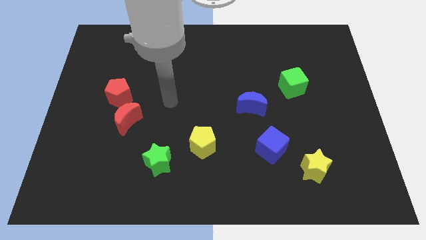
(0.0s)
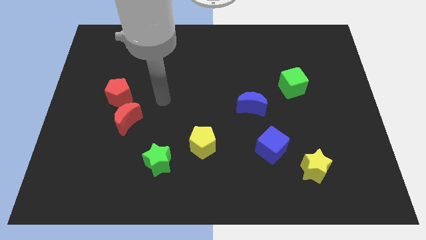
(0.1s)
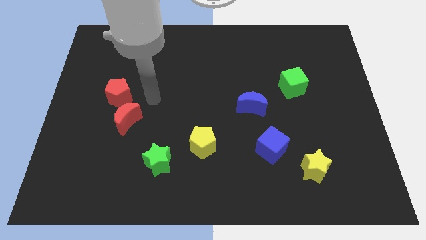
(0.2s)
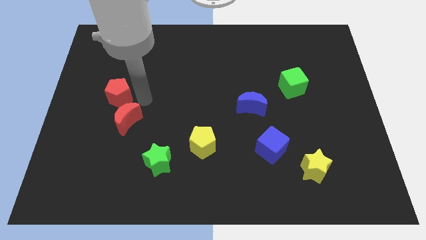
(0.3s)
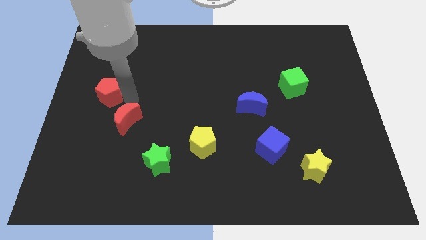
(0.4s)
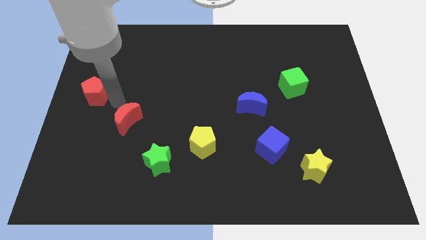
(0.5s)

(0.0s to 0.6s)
separate the red moon from the red pentagon

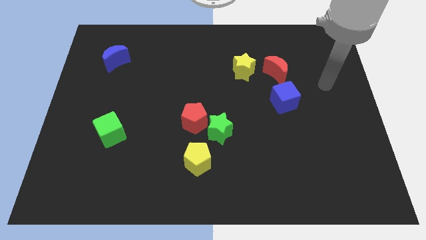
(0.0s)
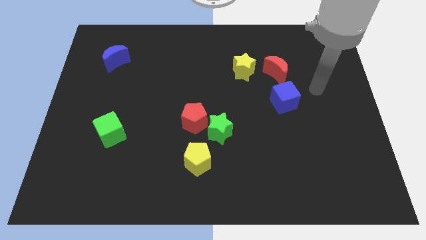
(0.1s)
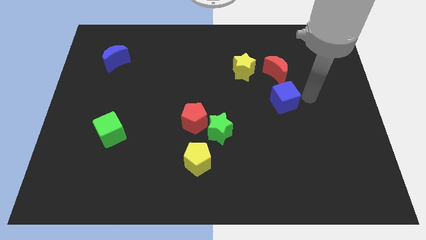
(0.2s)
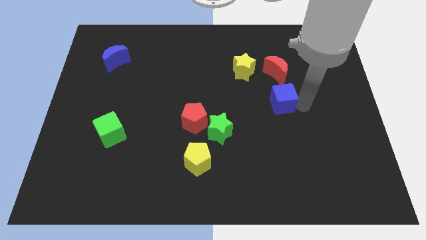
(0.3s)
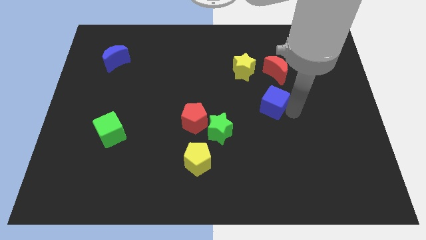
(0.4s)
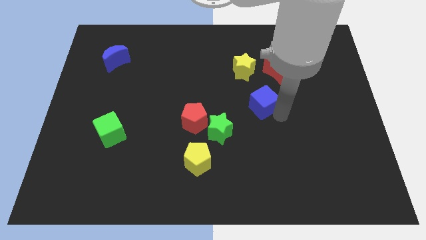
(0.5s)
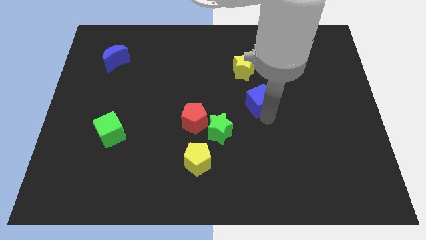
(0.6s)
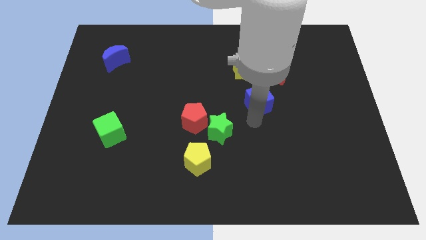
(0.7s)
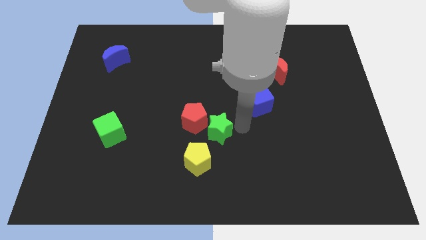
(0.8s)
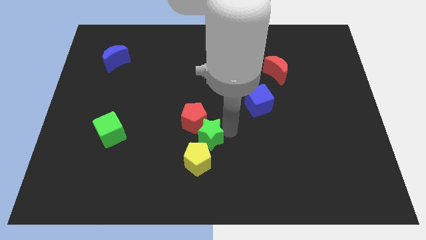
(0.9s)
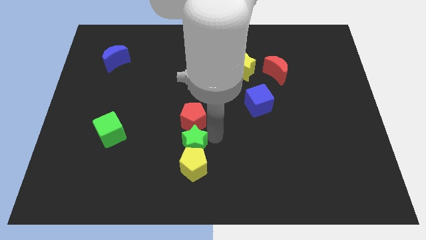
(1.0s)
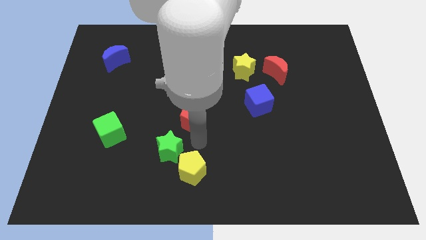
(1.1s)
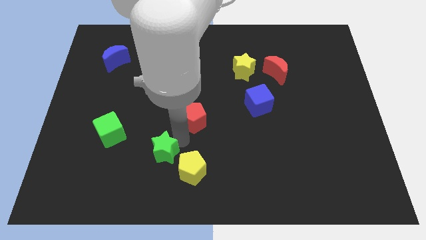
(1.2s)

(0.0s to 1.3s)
separate the red pentagon from the green star

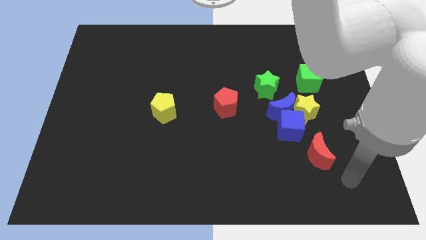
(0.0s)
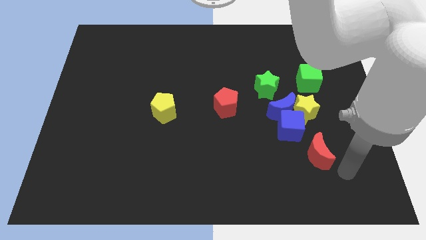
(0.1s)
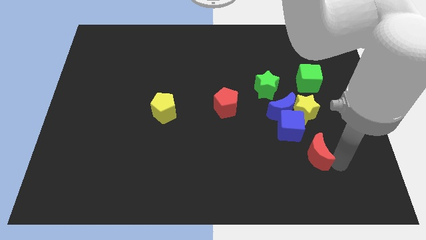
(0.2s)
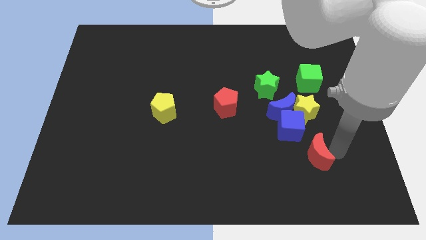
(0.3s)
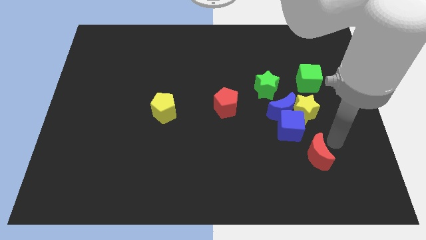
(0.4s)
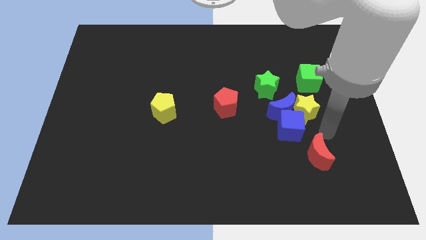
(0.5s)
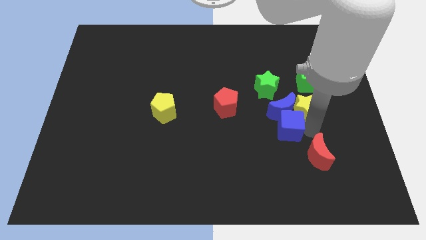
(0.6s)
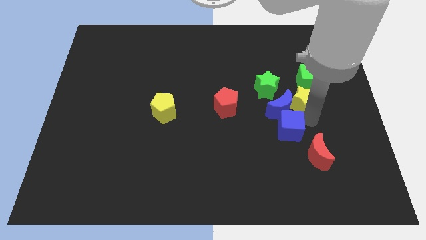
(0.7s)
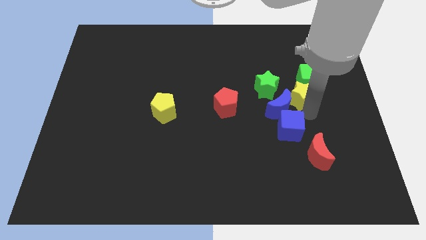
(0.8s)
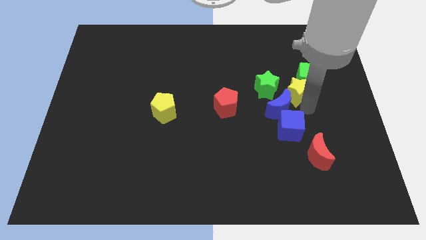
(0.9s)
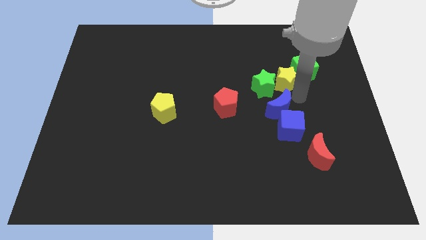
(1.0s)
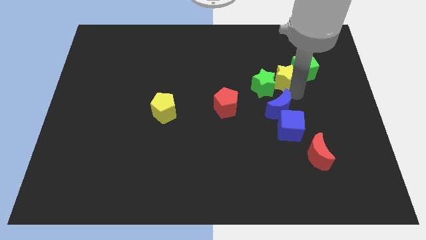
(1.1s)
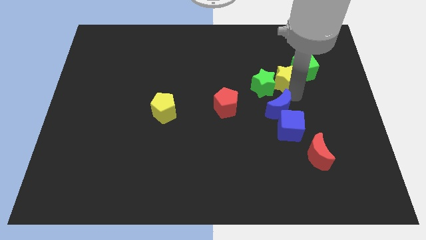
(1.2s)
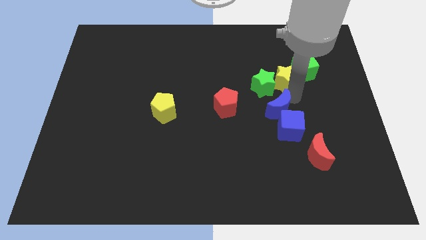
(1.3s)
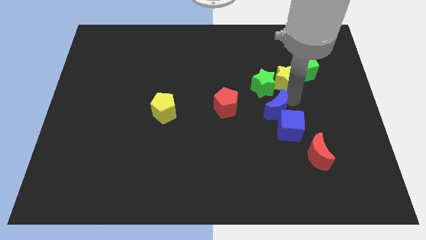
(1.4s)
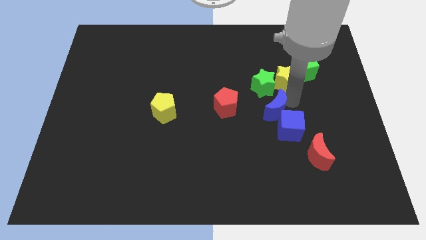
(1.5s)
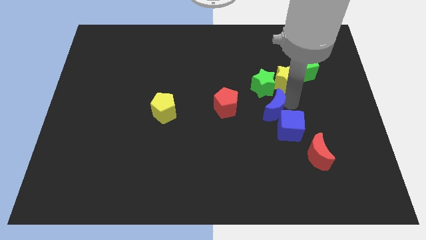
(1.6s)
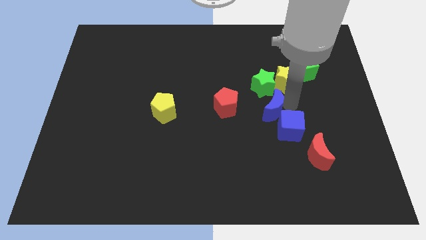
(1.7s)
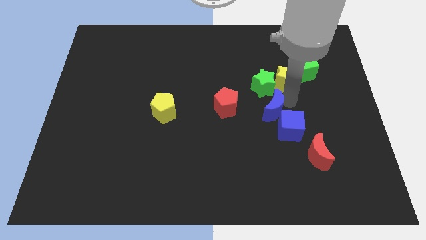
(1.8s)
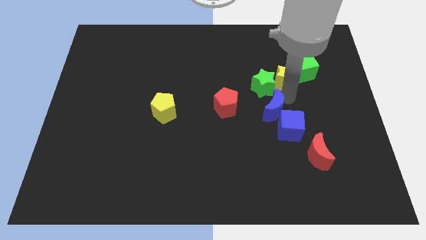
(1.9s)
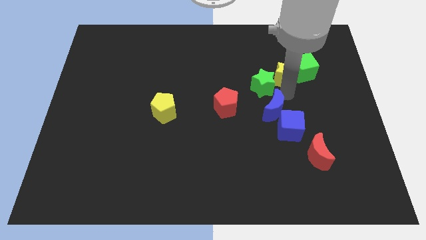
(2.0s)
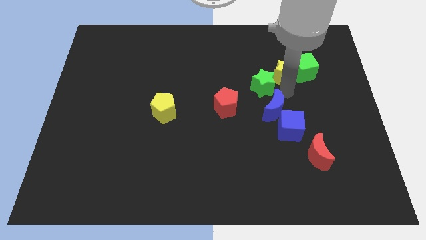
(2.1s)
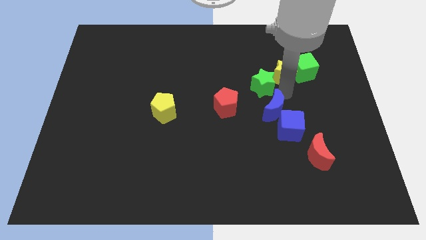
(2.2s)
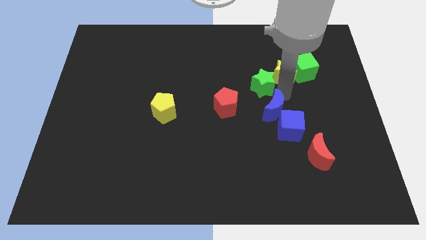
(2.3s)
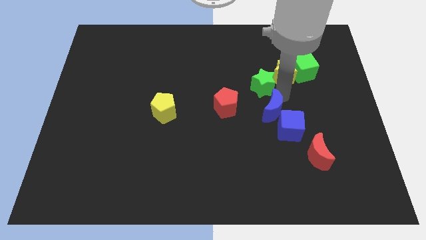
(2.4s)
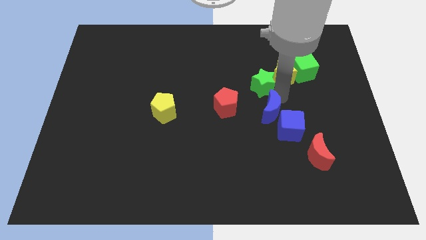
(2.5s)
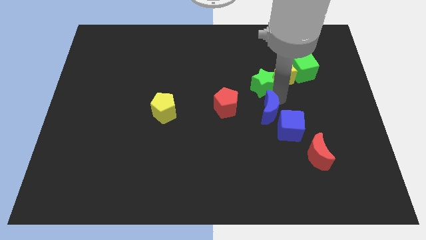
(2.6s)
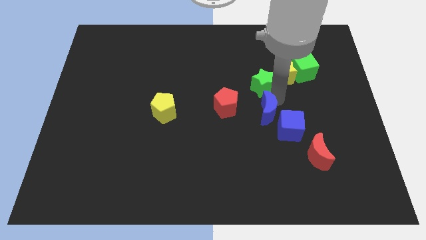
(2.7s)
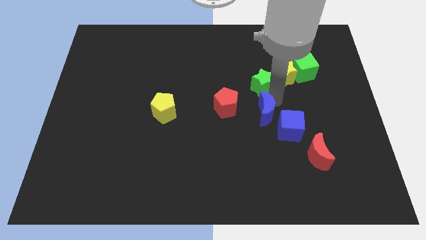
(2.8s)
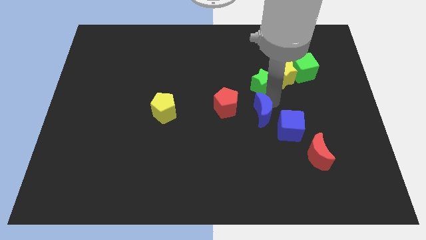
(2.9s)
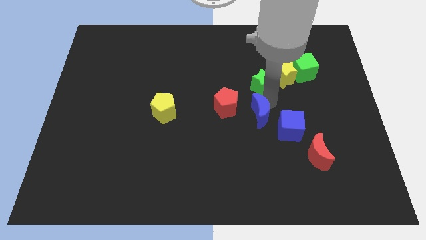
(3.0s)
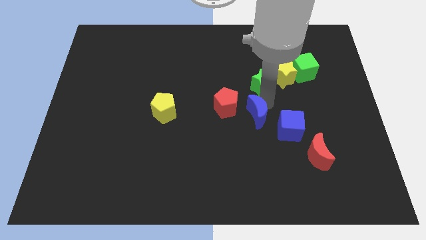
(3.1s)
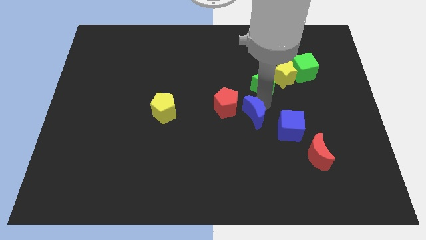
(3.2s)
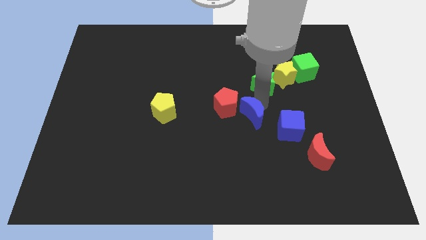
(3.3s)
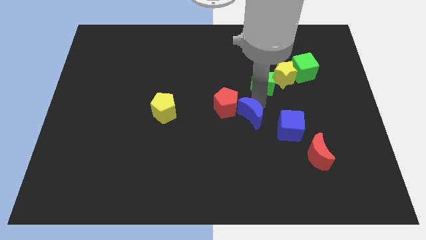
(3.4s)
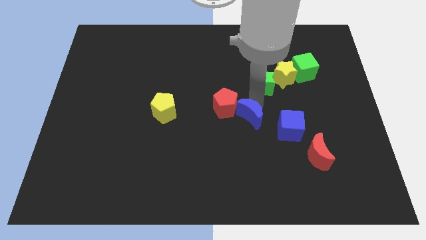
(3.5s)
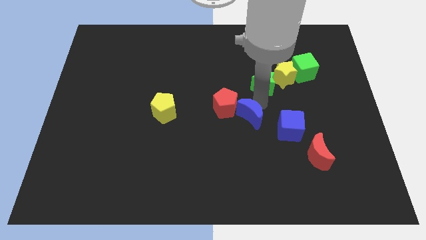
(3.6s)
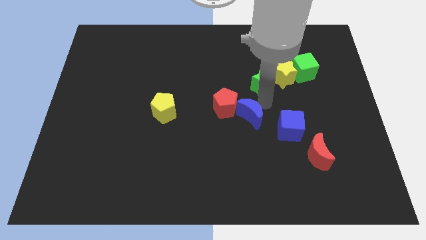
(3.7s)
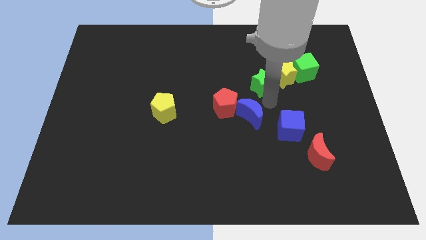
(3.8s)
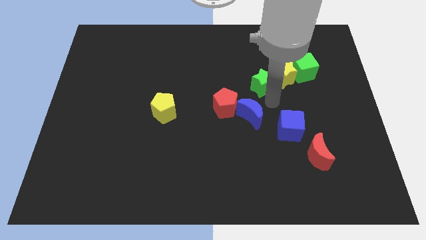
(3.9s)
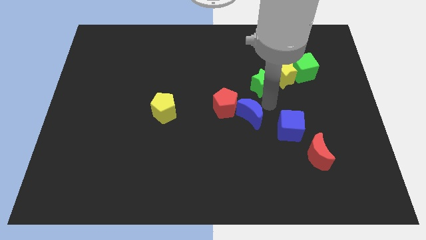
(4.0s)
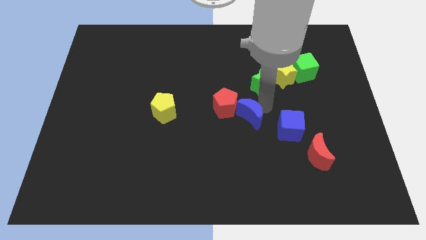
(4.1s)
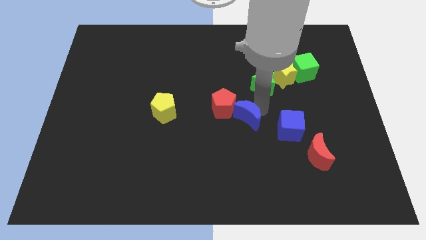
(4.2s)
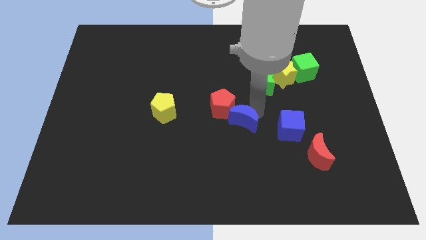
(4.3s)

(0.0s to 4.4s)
separate the blue moon from the group

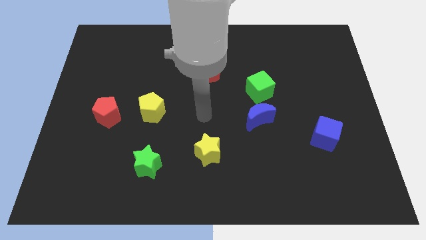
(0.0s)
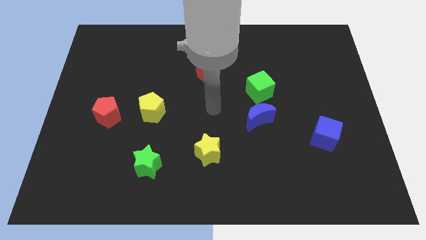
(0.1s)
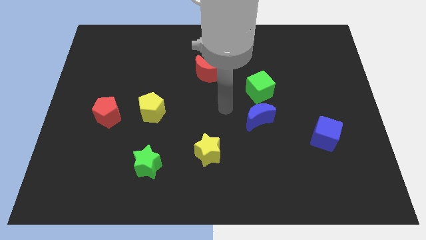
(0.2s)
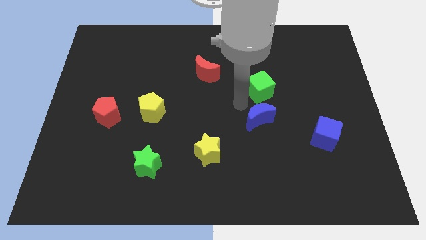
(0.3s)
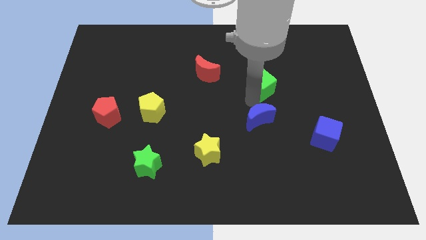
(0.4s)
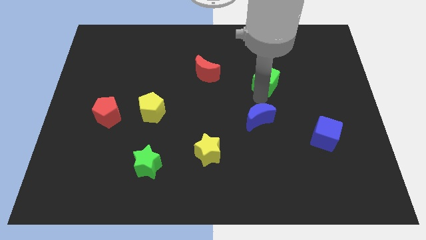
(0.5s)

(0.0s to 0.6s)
separate the blue moon from the green cube

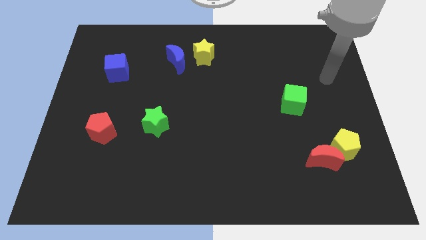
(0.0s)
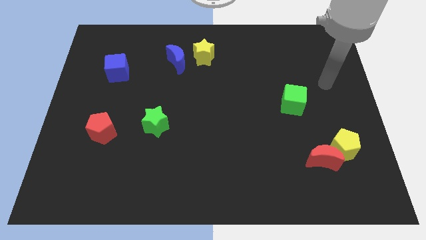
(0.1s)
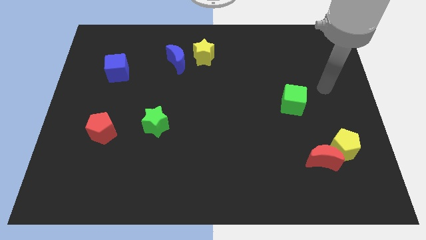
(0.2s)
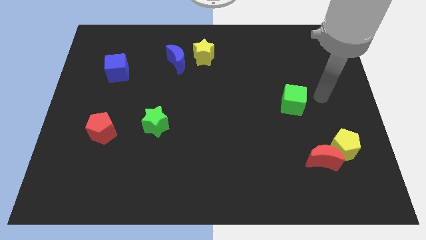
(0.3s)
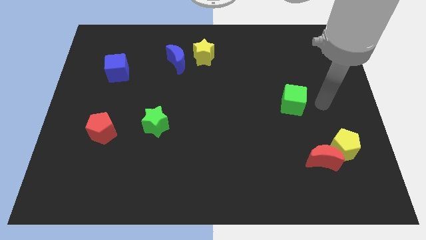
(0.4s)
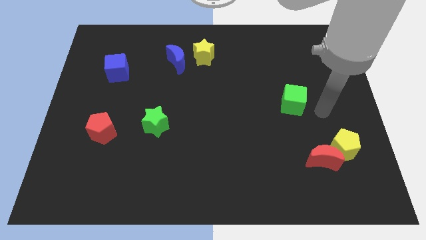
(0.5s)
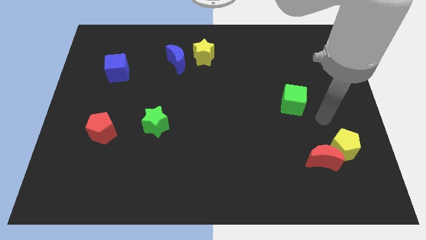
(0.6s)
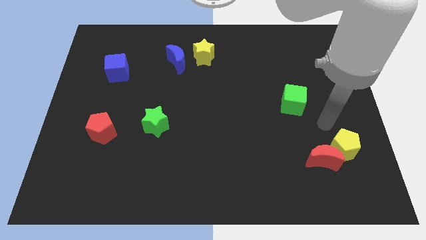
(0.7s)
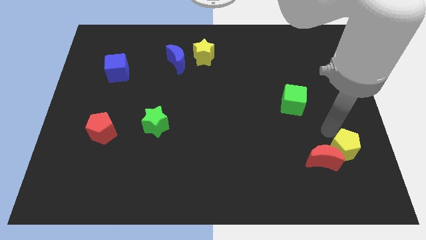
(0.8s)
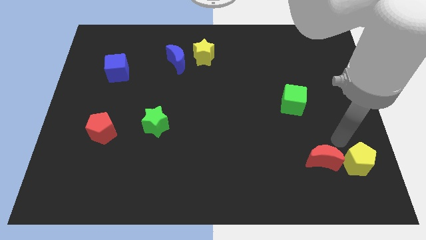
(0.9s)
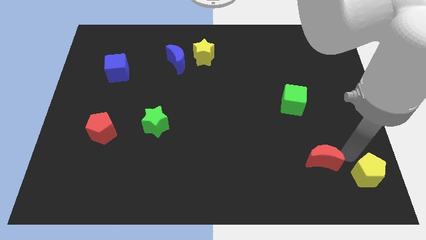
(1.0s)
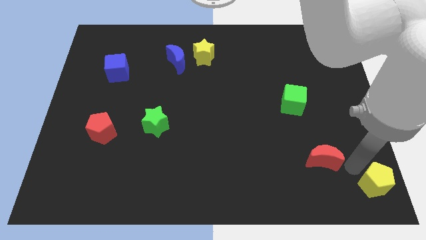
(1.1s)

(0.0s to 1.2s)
move the red moon away from the yellow pentagon

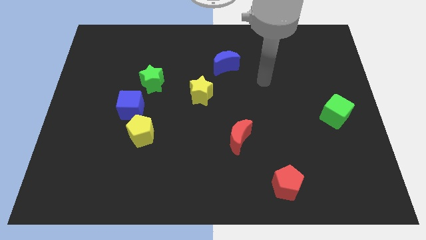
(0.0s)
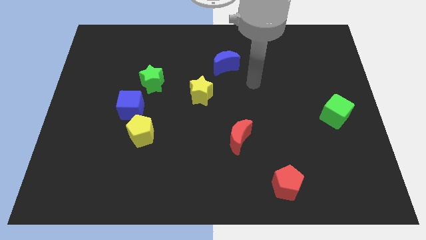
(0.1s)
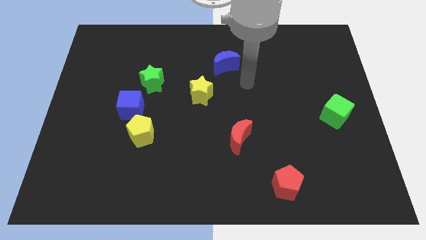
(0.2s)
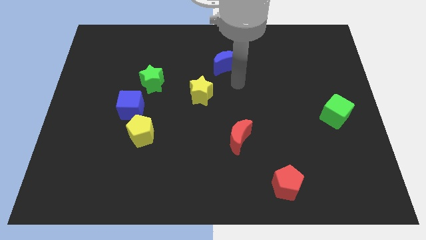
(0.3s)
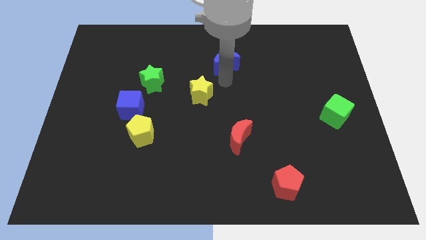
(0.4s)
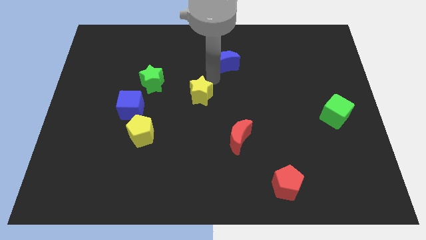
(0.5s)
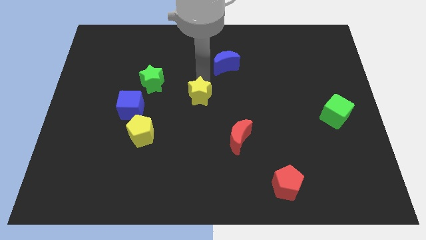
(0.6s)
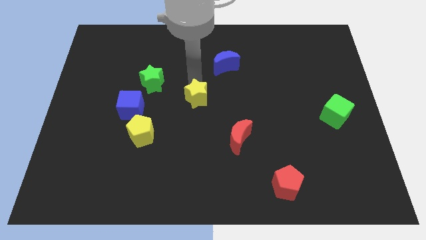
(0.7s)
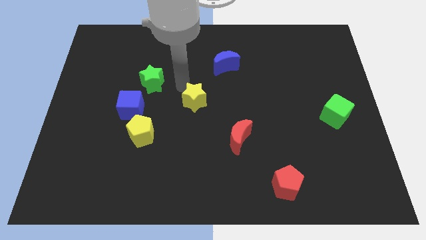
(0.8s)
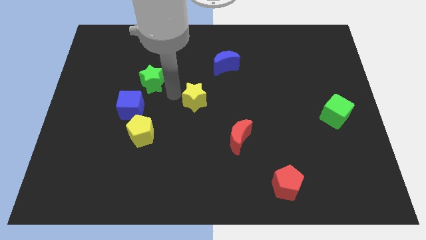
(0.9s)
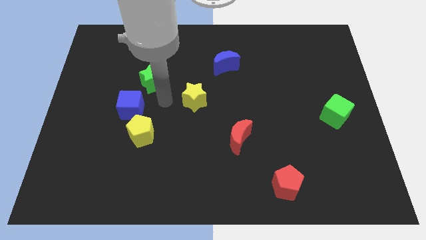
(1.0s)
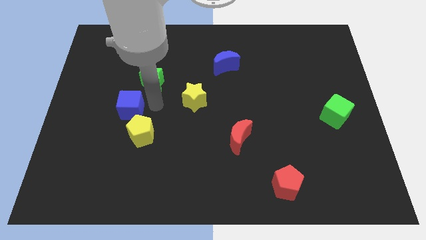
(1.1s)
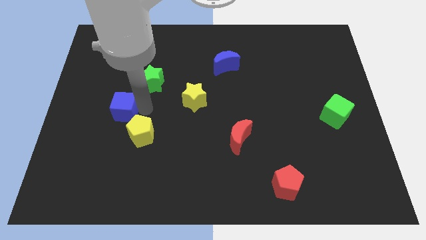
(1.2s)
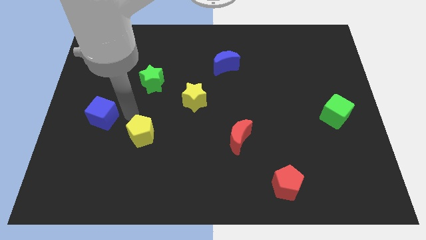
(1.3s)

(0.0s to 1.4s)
pull the yellow pentagon apart from the blue cube
